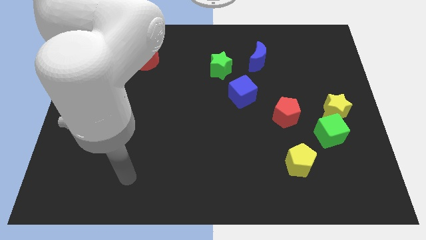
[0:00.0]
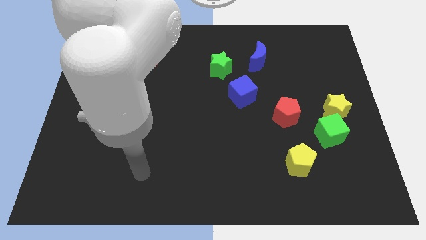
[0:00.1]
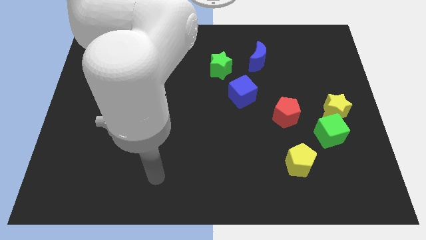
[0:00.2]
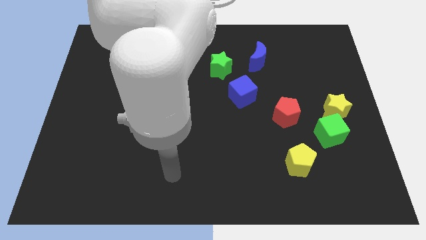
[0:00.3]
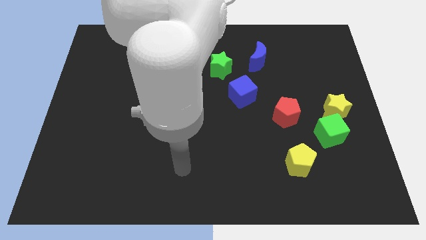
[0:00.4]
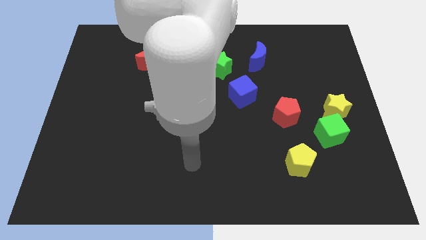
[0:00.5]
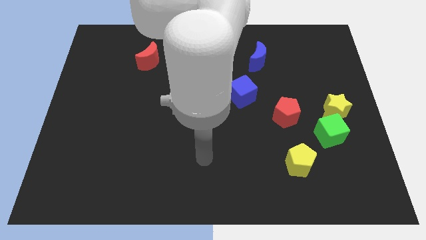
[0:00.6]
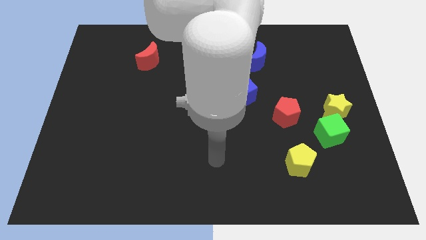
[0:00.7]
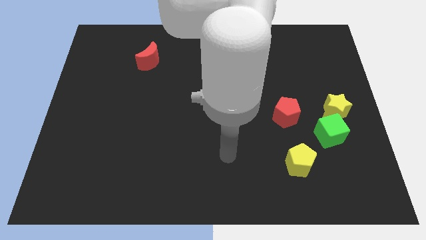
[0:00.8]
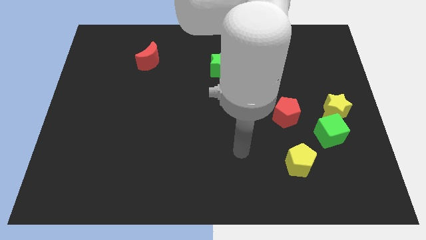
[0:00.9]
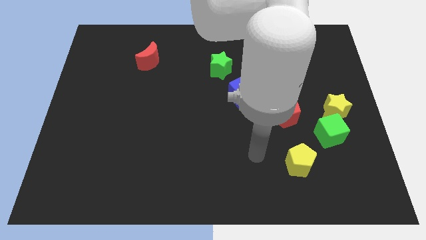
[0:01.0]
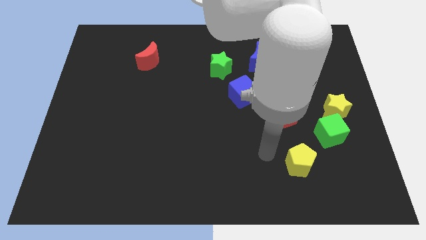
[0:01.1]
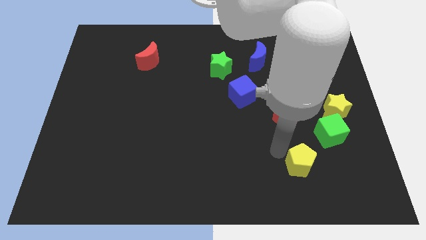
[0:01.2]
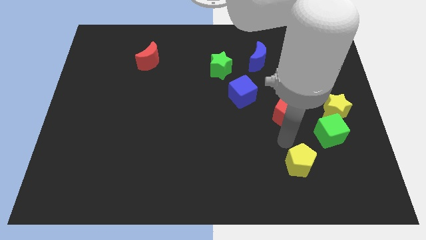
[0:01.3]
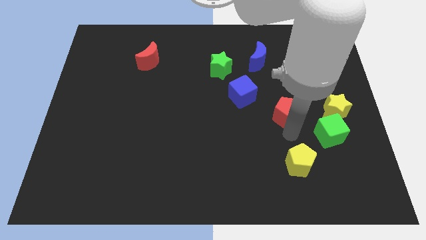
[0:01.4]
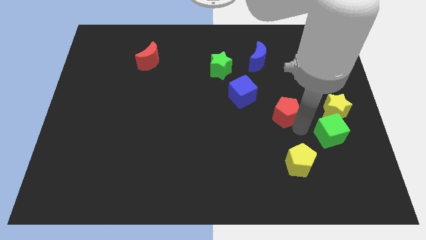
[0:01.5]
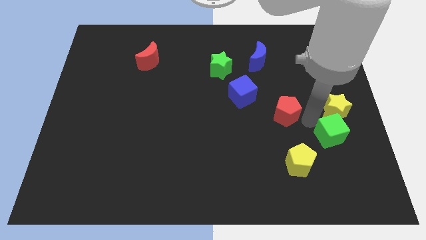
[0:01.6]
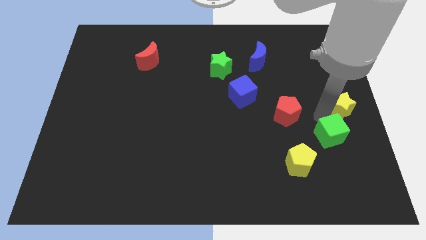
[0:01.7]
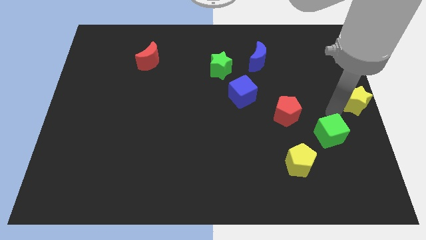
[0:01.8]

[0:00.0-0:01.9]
separate the green cube from the yellow star

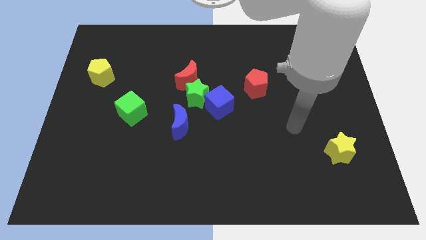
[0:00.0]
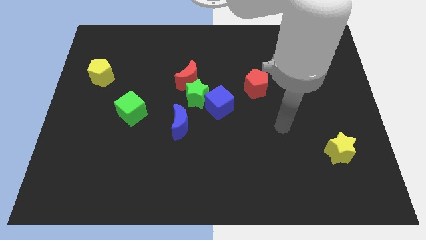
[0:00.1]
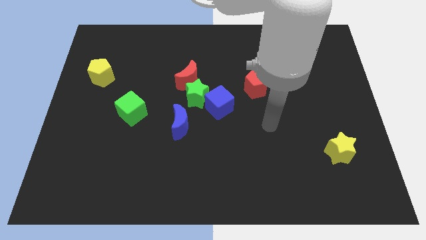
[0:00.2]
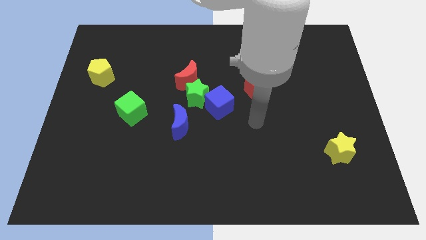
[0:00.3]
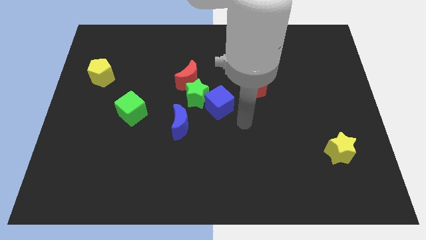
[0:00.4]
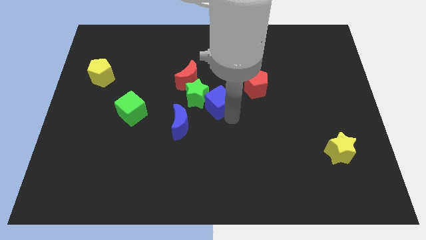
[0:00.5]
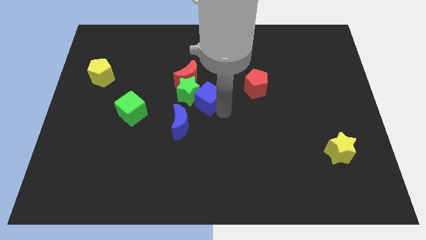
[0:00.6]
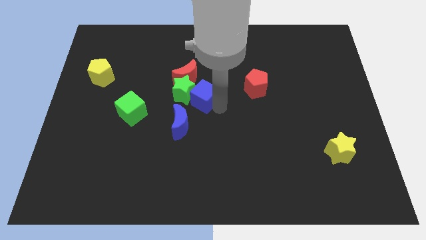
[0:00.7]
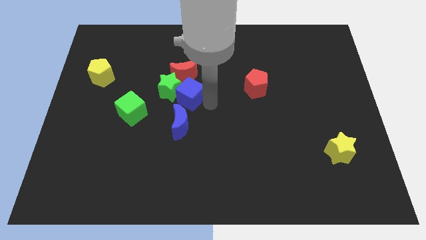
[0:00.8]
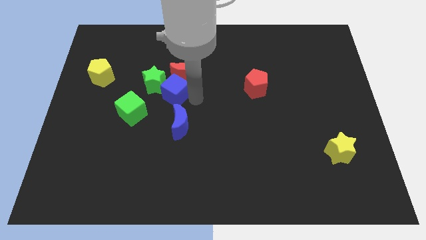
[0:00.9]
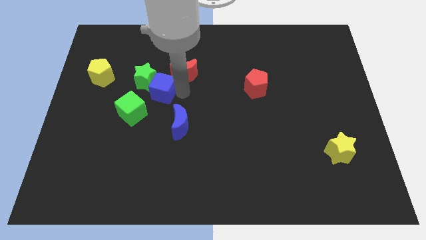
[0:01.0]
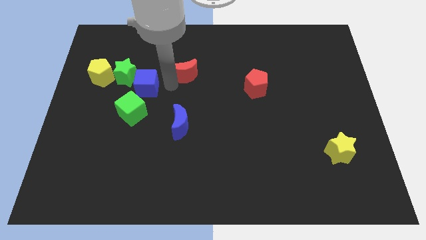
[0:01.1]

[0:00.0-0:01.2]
separate the red moon from the green star

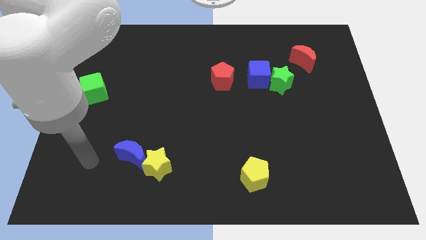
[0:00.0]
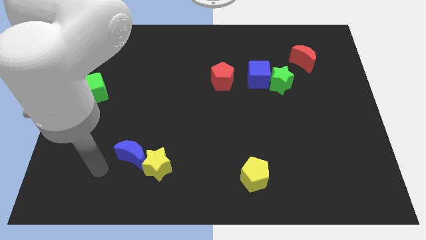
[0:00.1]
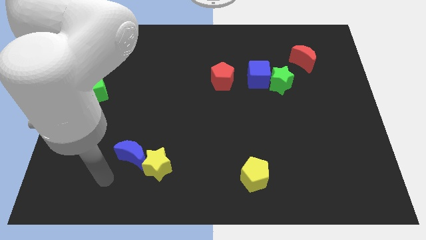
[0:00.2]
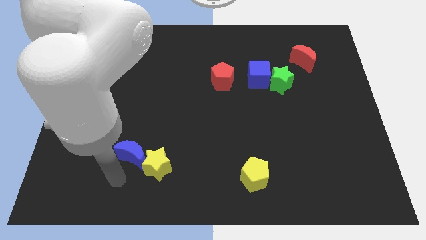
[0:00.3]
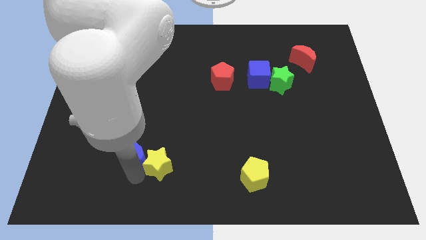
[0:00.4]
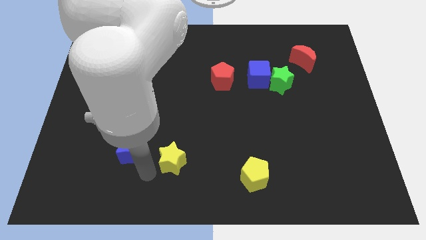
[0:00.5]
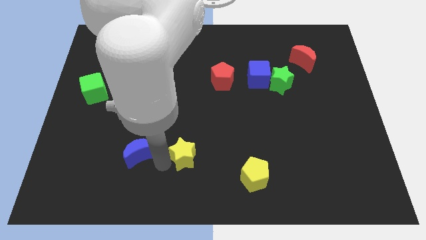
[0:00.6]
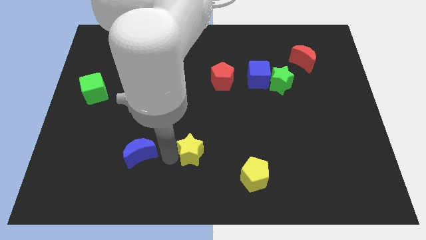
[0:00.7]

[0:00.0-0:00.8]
pull the blue moon apart from the yellow star

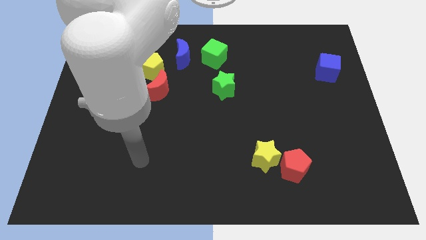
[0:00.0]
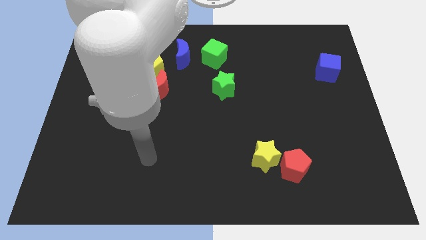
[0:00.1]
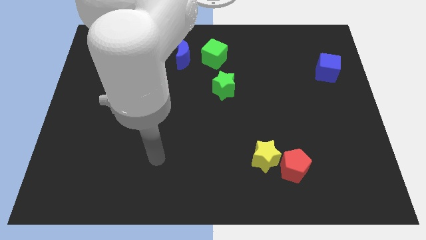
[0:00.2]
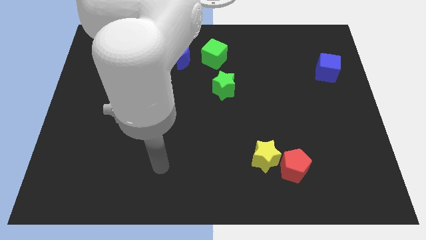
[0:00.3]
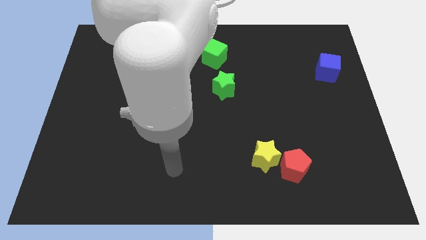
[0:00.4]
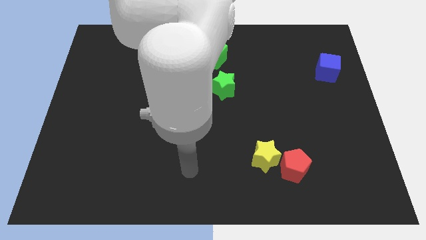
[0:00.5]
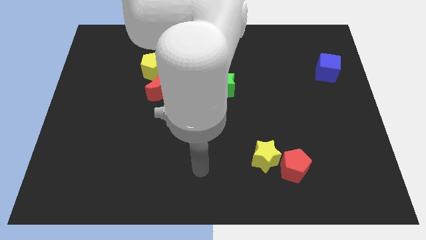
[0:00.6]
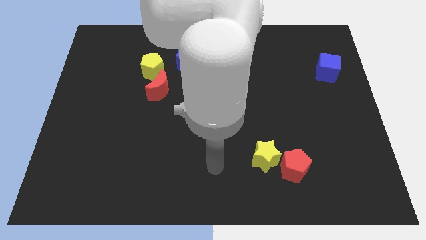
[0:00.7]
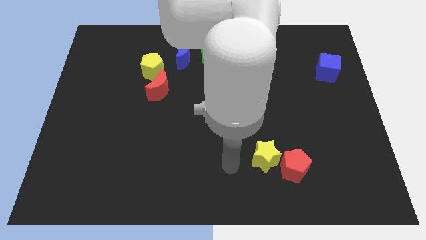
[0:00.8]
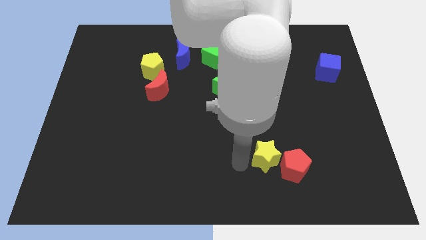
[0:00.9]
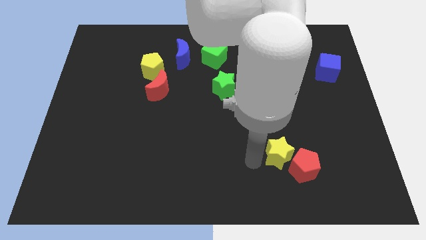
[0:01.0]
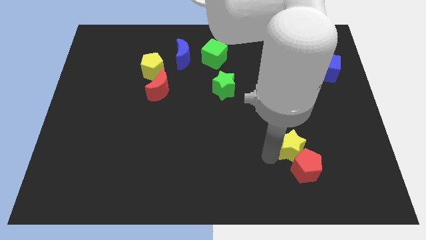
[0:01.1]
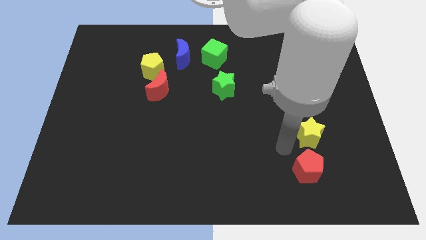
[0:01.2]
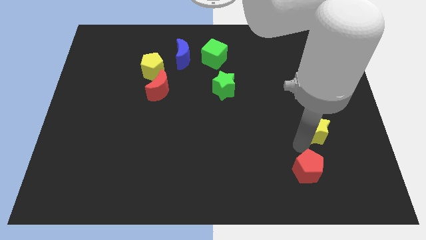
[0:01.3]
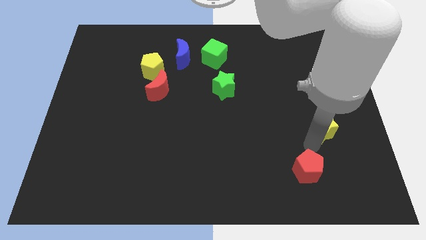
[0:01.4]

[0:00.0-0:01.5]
pull the red pentagon apart from the yellow star

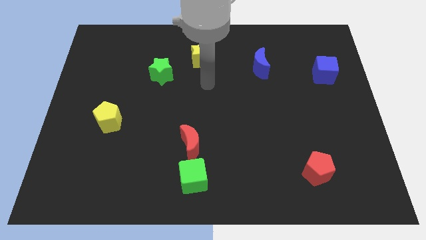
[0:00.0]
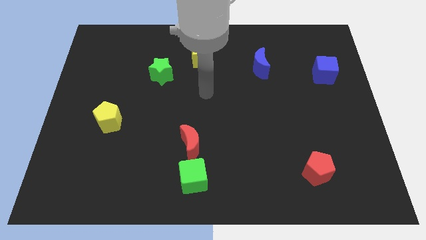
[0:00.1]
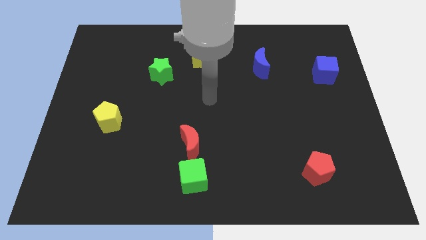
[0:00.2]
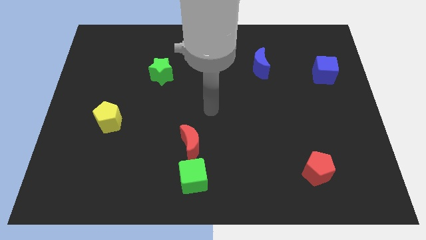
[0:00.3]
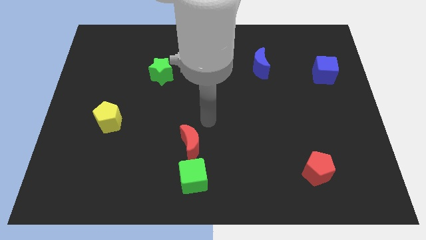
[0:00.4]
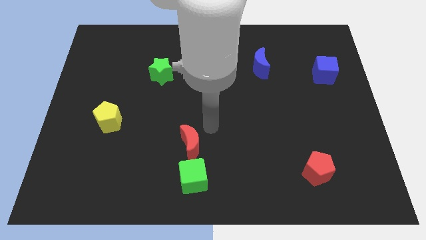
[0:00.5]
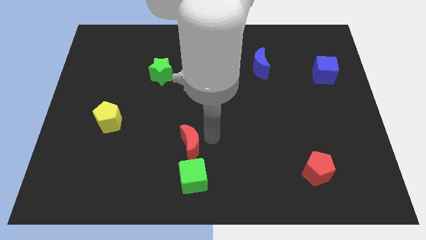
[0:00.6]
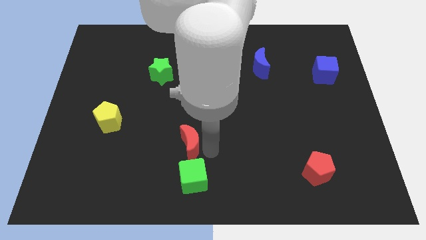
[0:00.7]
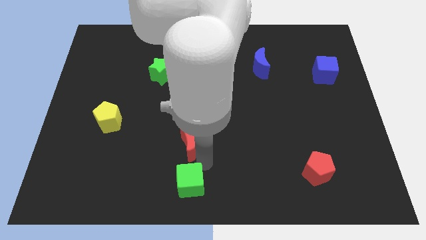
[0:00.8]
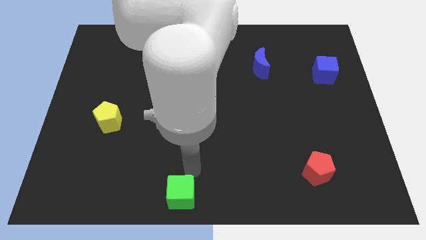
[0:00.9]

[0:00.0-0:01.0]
move the red moon away from the green cube

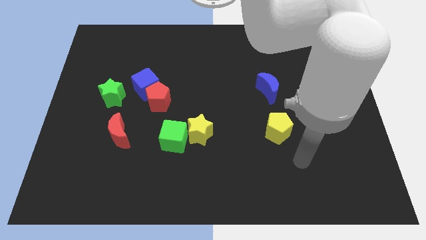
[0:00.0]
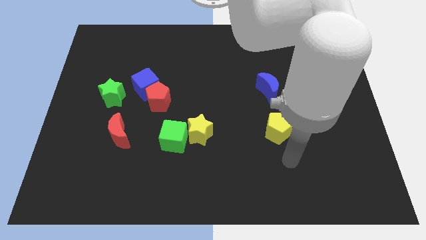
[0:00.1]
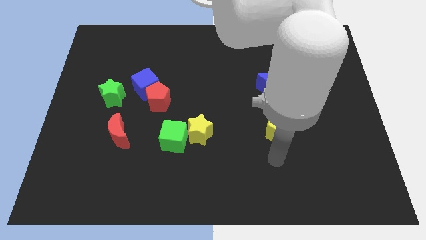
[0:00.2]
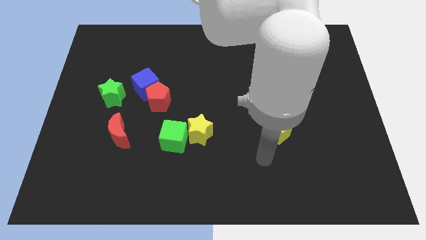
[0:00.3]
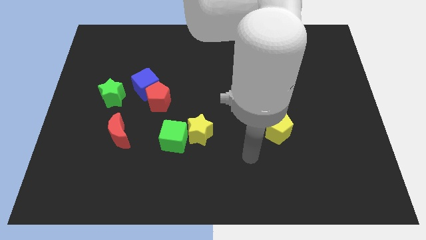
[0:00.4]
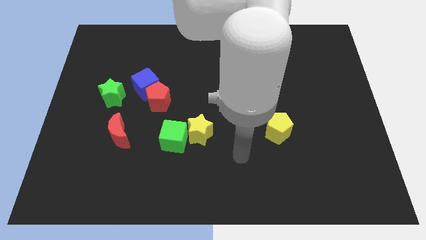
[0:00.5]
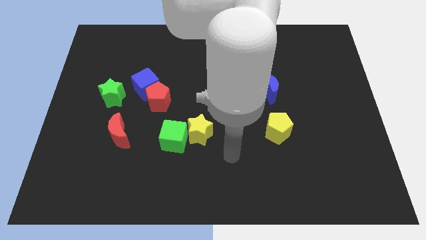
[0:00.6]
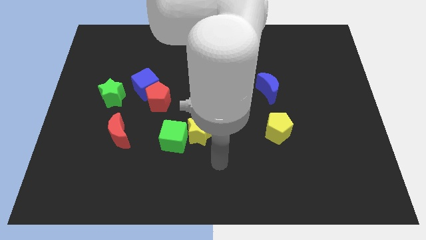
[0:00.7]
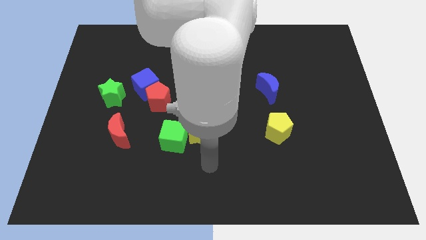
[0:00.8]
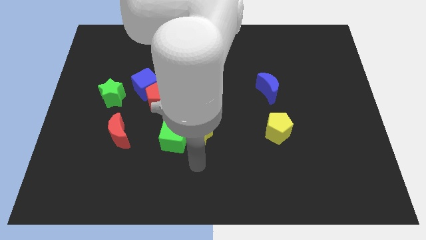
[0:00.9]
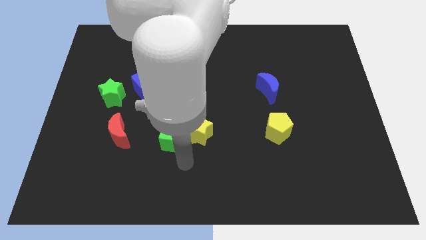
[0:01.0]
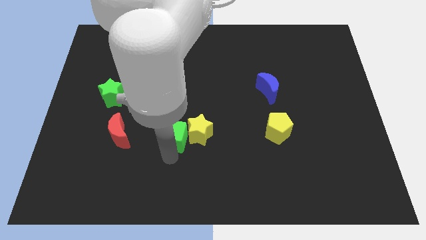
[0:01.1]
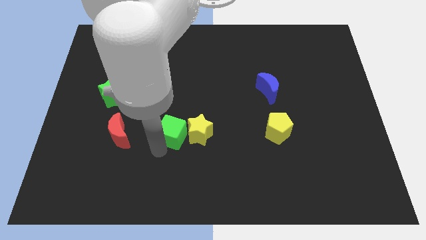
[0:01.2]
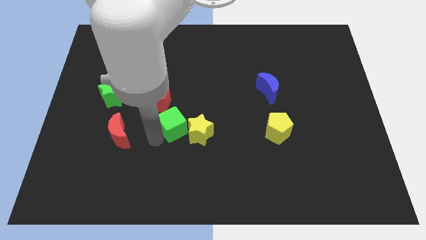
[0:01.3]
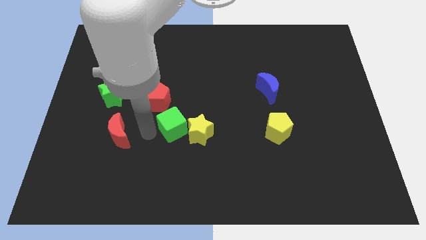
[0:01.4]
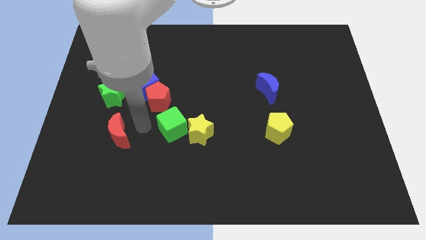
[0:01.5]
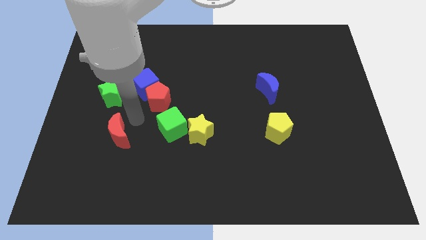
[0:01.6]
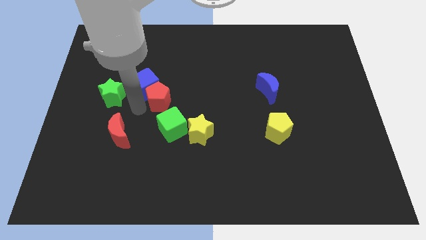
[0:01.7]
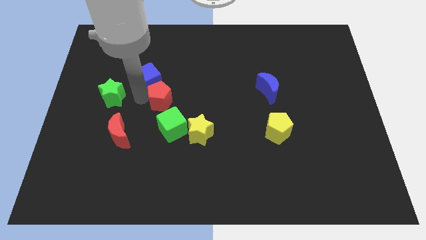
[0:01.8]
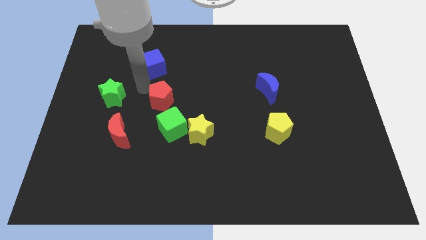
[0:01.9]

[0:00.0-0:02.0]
pull the red pentagon apart from the blue cube

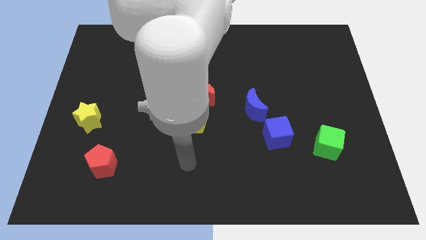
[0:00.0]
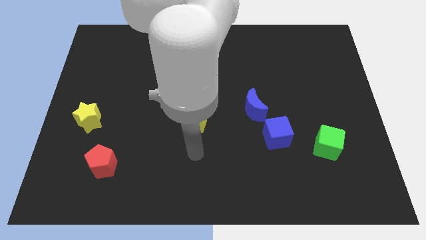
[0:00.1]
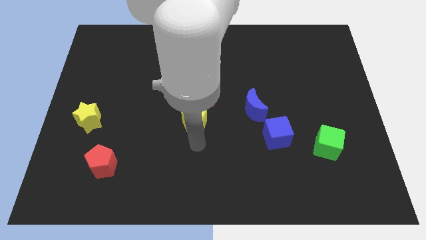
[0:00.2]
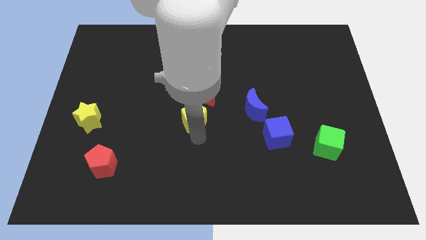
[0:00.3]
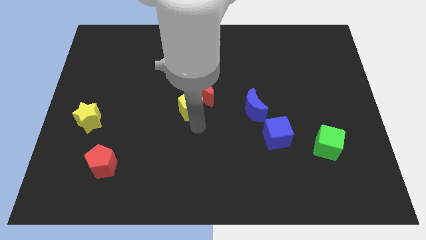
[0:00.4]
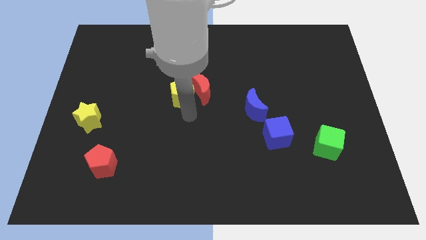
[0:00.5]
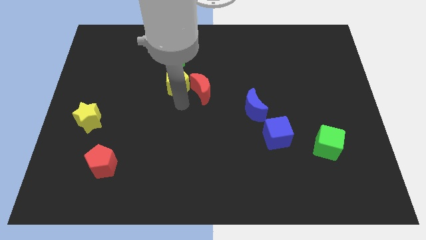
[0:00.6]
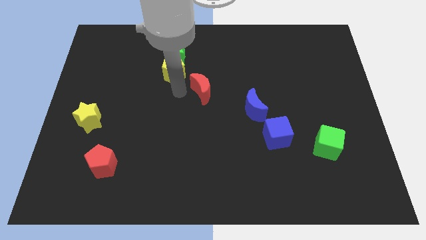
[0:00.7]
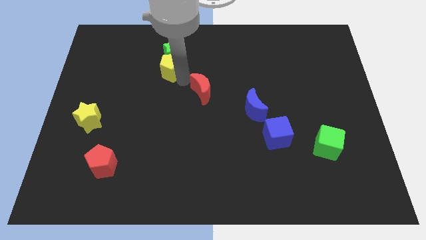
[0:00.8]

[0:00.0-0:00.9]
move the red moon away from the yellow pentagon
